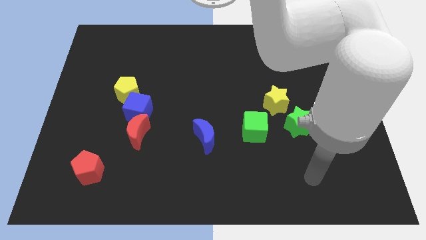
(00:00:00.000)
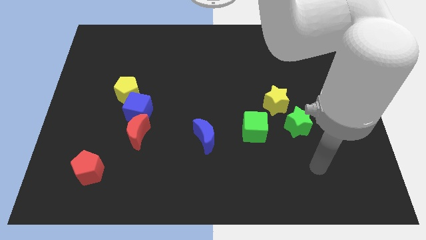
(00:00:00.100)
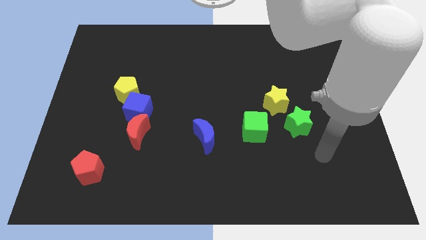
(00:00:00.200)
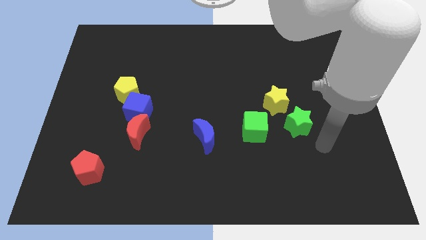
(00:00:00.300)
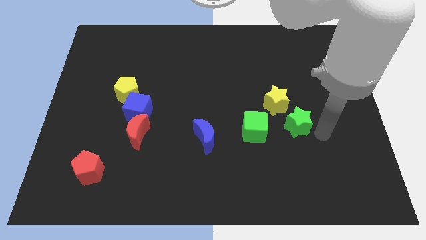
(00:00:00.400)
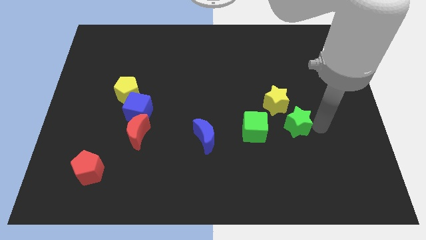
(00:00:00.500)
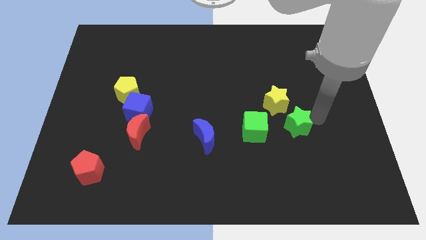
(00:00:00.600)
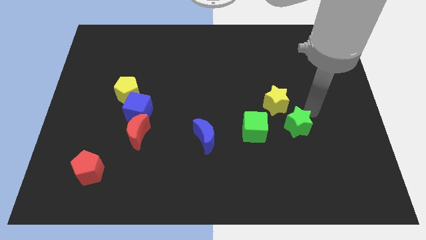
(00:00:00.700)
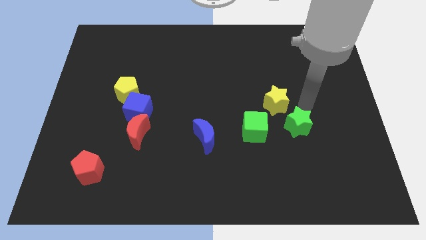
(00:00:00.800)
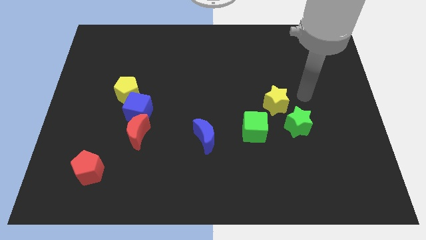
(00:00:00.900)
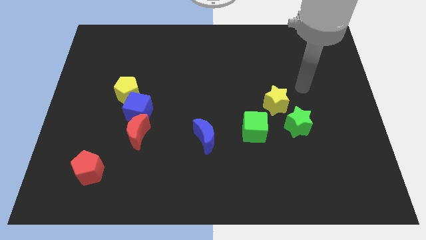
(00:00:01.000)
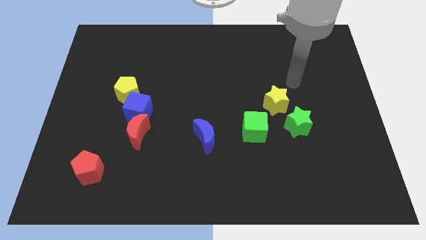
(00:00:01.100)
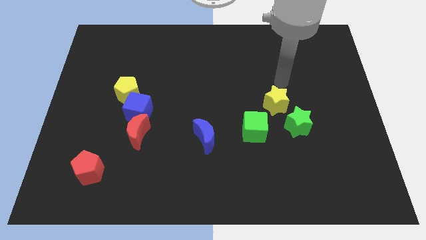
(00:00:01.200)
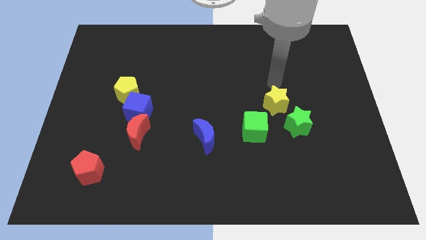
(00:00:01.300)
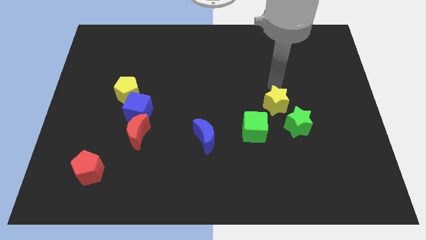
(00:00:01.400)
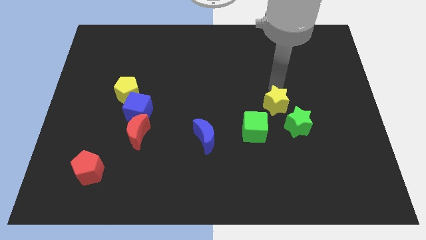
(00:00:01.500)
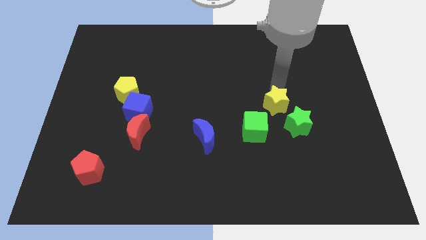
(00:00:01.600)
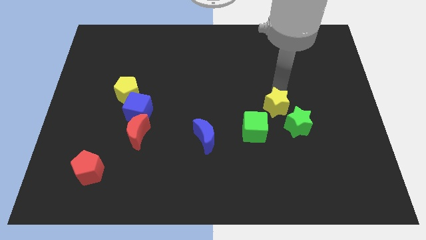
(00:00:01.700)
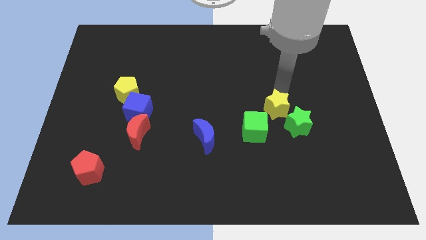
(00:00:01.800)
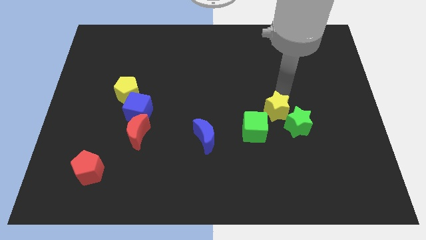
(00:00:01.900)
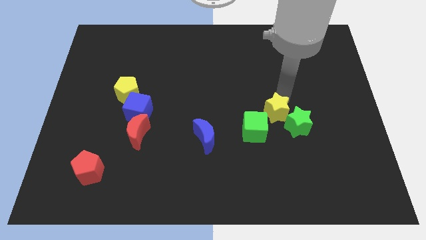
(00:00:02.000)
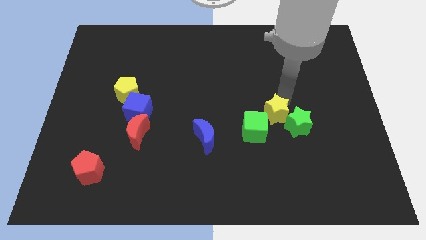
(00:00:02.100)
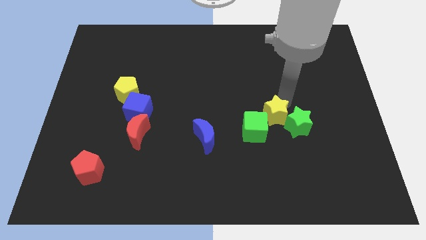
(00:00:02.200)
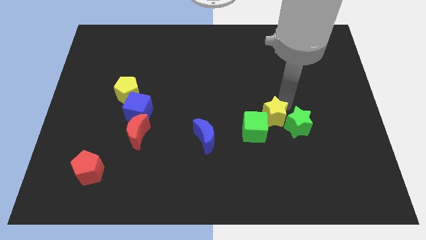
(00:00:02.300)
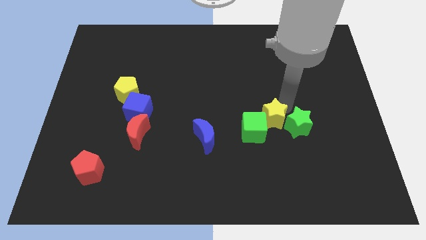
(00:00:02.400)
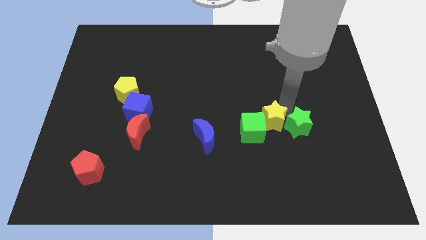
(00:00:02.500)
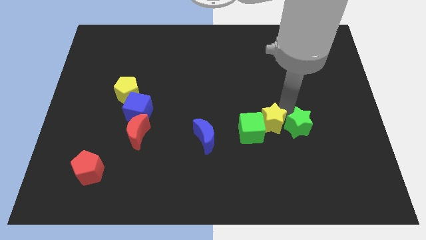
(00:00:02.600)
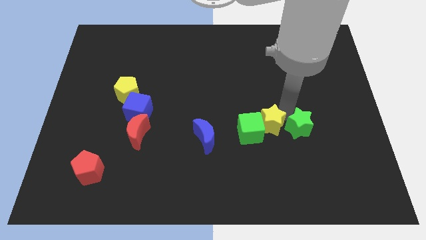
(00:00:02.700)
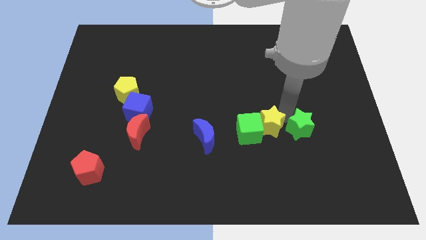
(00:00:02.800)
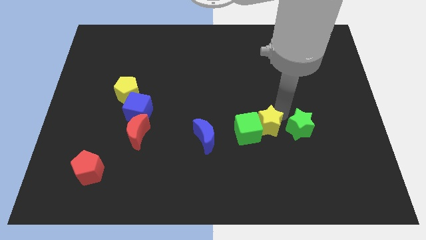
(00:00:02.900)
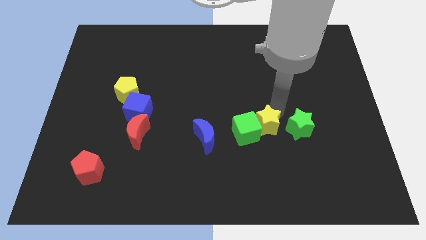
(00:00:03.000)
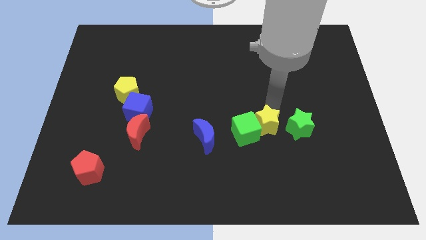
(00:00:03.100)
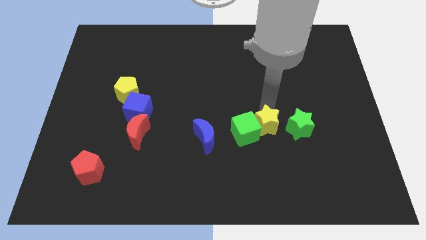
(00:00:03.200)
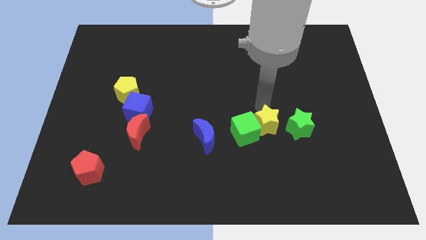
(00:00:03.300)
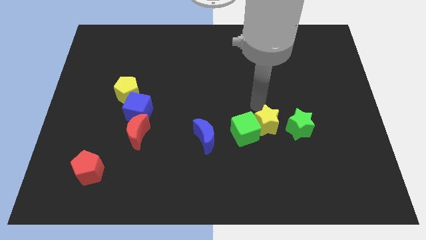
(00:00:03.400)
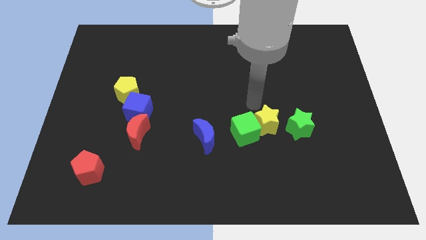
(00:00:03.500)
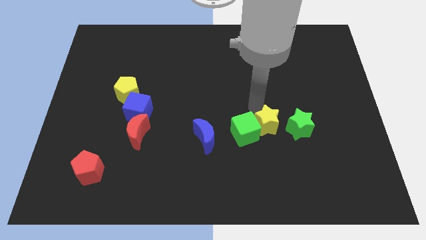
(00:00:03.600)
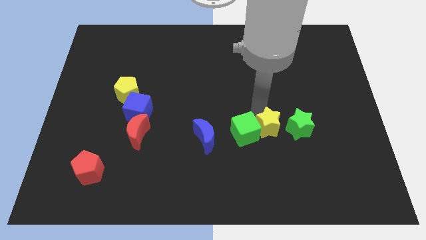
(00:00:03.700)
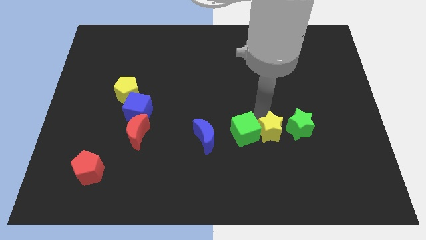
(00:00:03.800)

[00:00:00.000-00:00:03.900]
move the yellow star downwards a bit

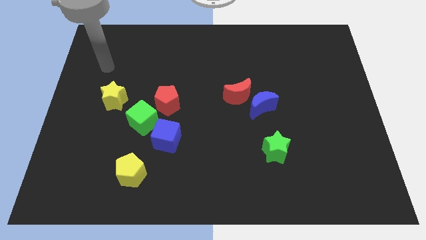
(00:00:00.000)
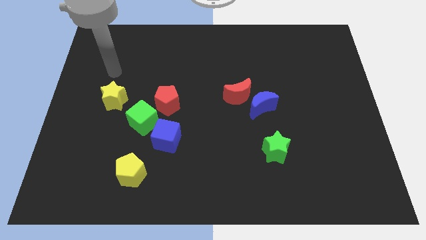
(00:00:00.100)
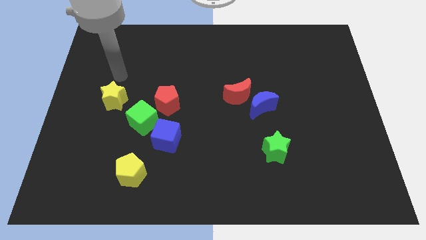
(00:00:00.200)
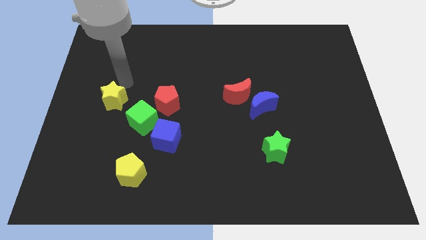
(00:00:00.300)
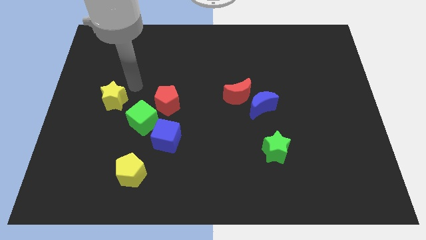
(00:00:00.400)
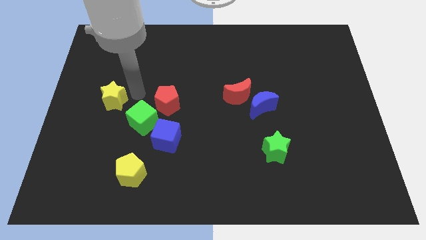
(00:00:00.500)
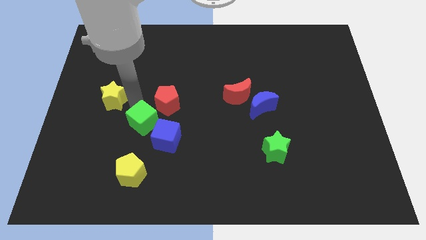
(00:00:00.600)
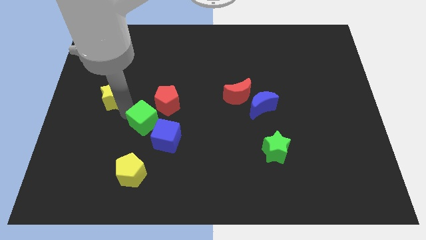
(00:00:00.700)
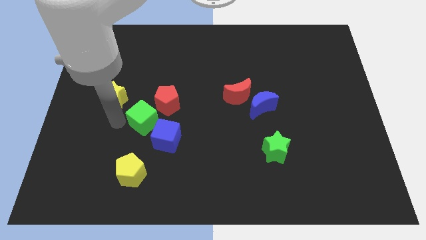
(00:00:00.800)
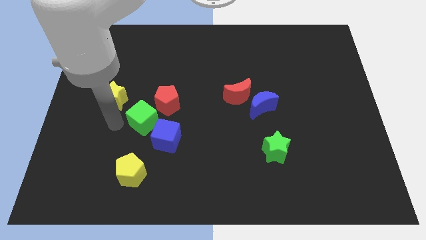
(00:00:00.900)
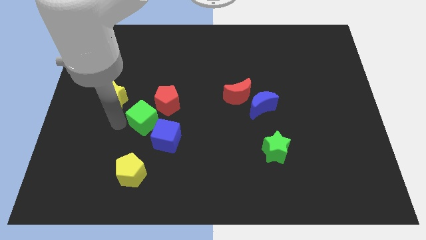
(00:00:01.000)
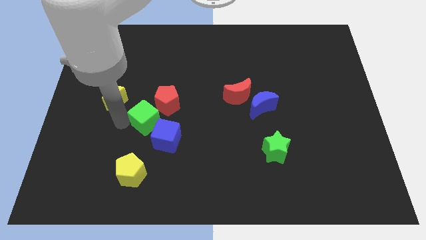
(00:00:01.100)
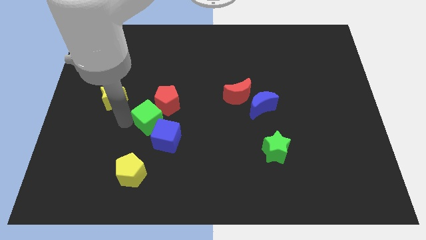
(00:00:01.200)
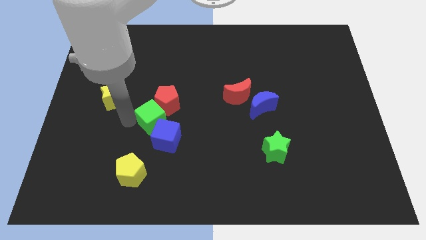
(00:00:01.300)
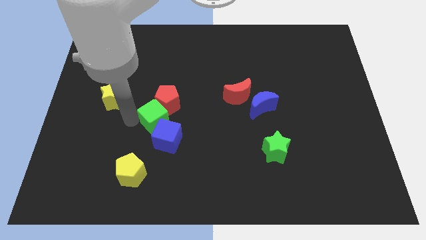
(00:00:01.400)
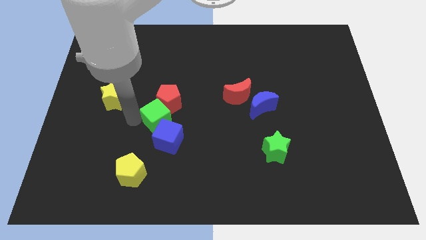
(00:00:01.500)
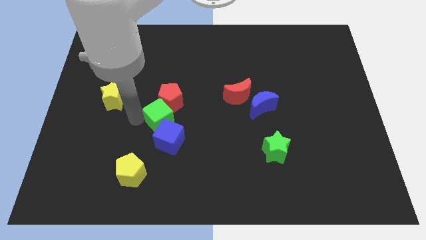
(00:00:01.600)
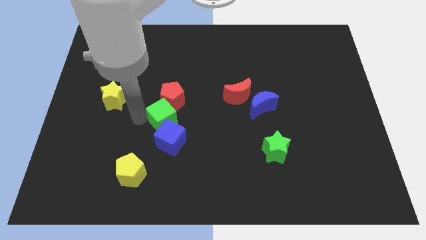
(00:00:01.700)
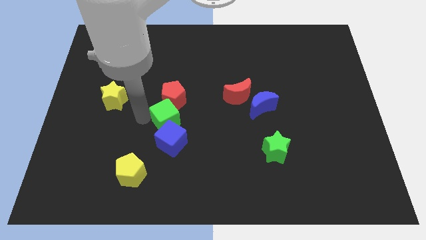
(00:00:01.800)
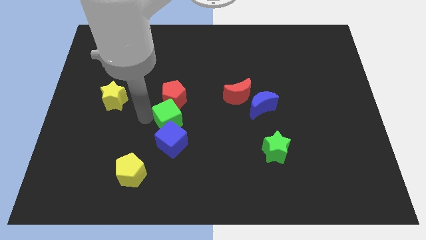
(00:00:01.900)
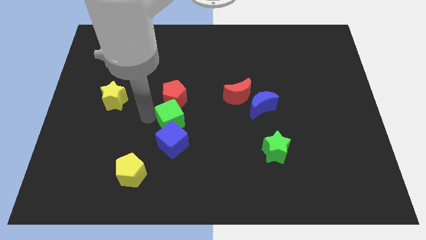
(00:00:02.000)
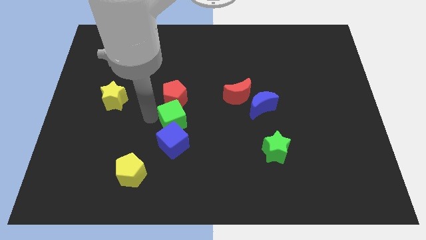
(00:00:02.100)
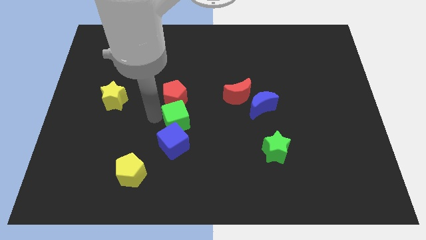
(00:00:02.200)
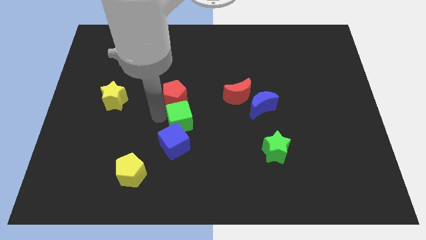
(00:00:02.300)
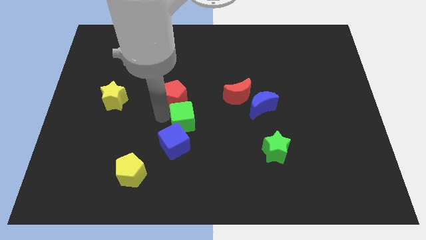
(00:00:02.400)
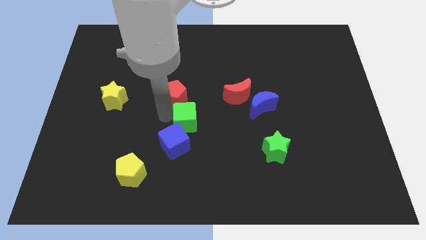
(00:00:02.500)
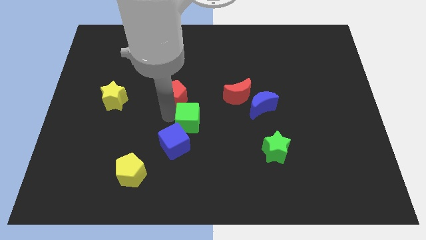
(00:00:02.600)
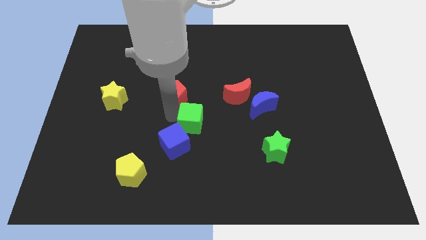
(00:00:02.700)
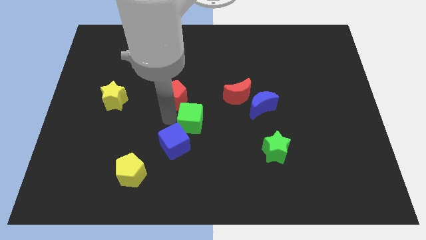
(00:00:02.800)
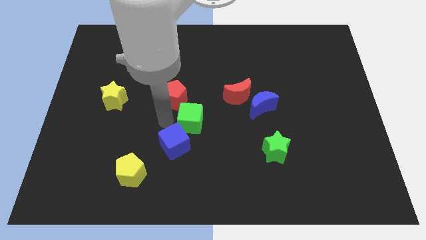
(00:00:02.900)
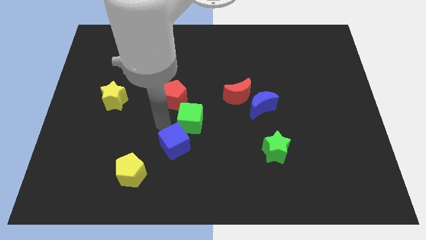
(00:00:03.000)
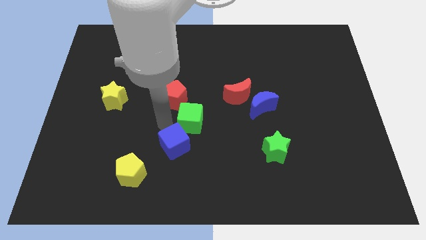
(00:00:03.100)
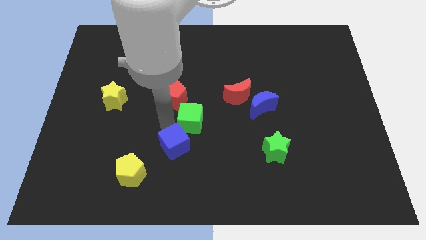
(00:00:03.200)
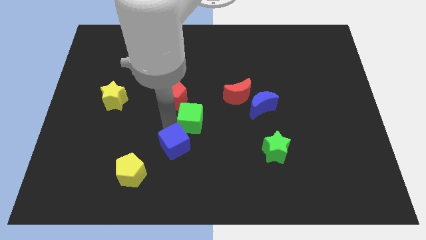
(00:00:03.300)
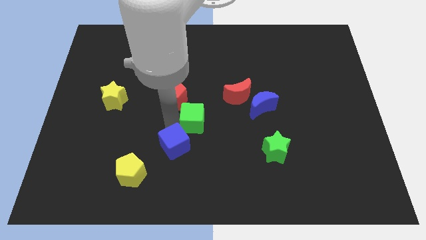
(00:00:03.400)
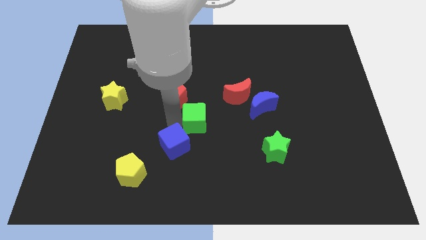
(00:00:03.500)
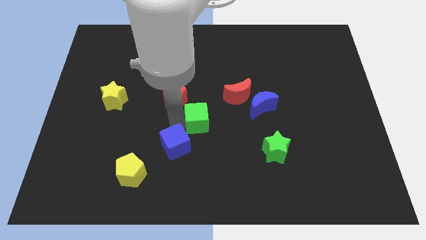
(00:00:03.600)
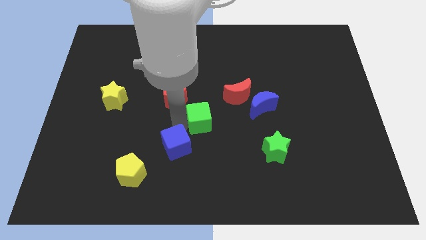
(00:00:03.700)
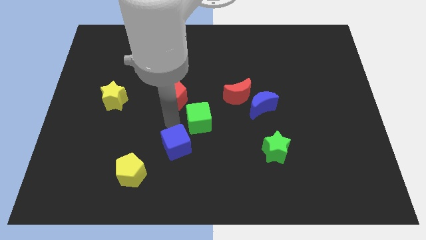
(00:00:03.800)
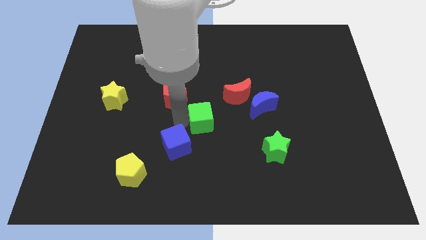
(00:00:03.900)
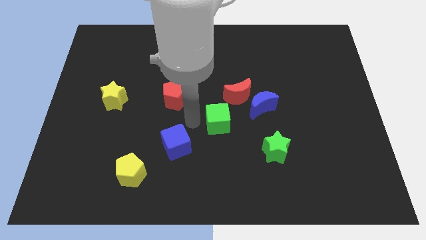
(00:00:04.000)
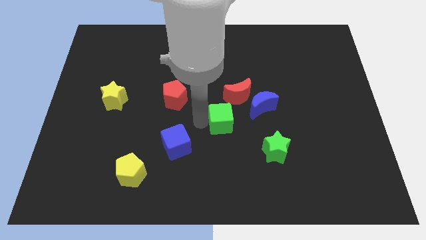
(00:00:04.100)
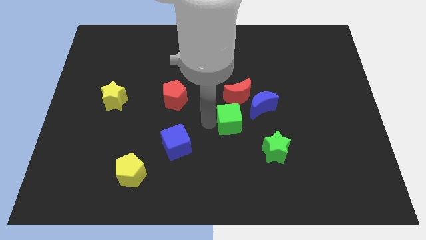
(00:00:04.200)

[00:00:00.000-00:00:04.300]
move the green cube right

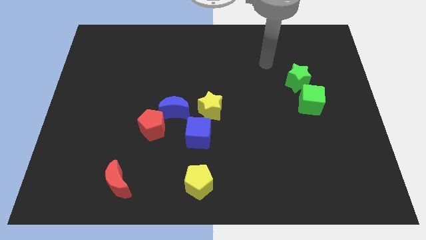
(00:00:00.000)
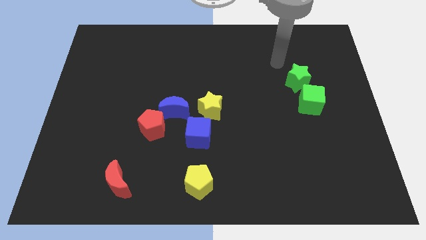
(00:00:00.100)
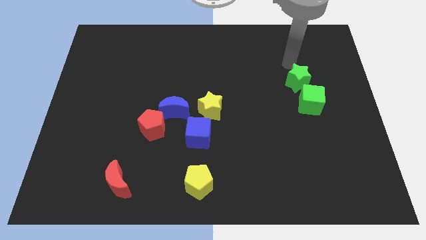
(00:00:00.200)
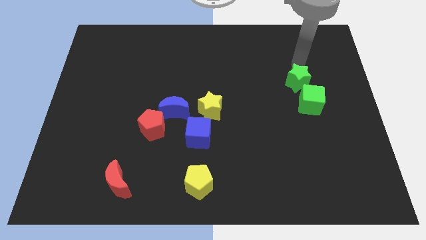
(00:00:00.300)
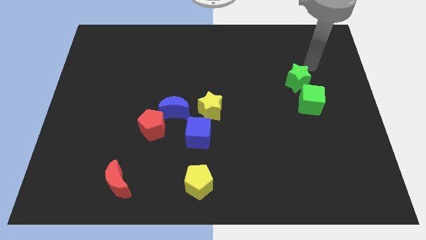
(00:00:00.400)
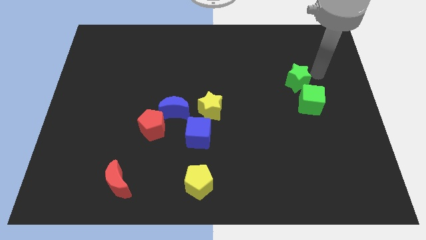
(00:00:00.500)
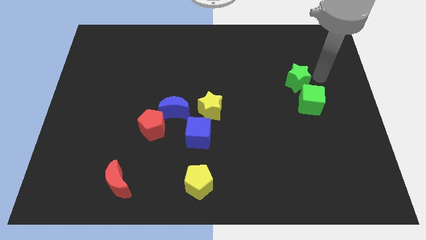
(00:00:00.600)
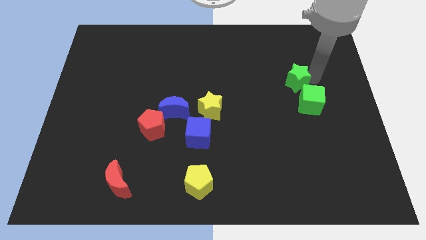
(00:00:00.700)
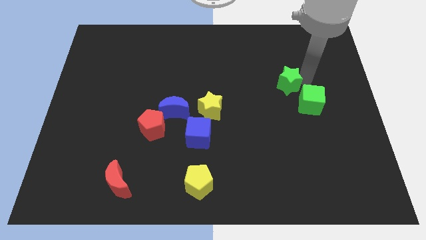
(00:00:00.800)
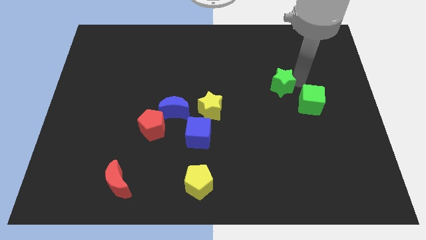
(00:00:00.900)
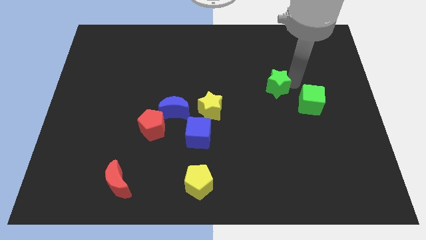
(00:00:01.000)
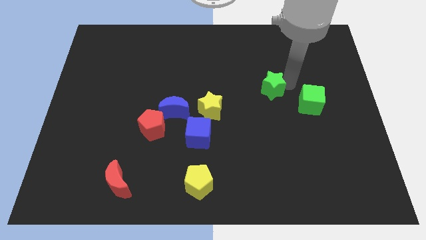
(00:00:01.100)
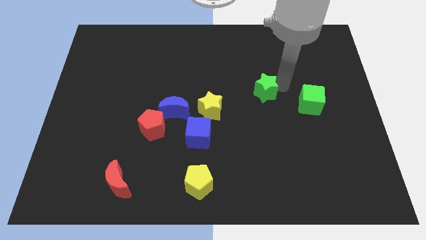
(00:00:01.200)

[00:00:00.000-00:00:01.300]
push the green star a little left
